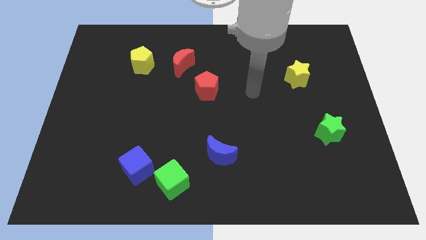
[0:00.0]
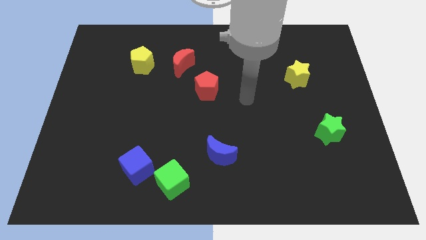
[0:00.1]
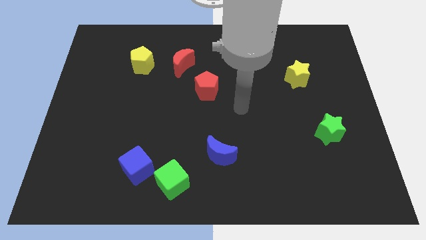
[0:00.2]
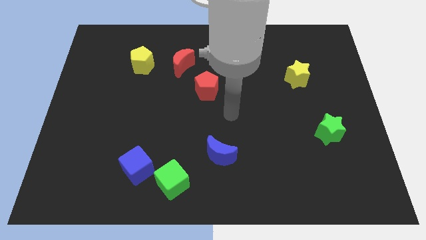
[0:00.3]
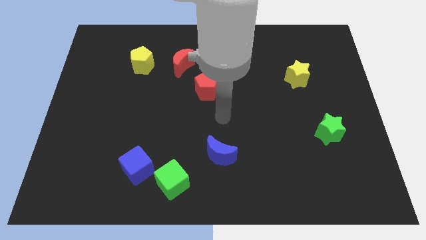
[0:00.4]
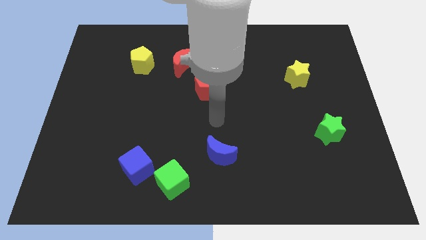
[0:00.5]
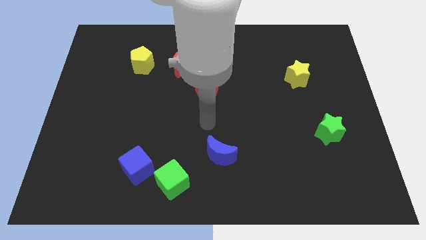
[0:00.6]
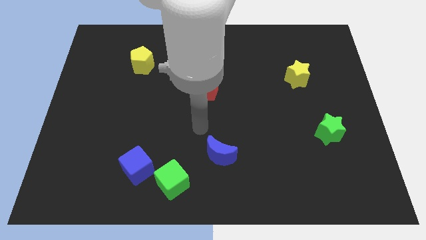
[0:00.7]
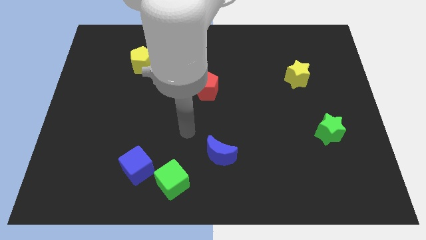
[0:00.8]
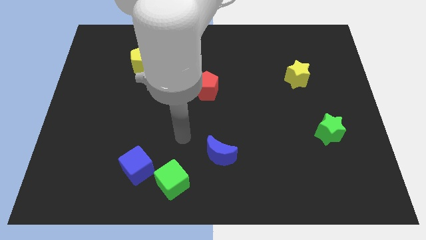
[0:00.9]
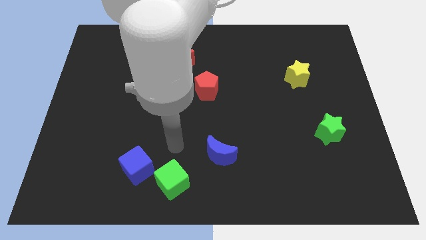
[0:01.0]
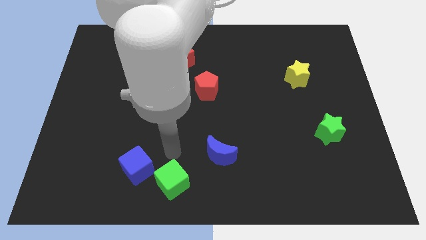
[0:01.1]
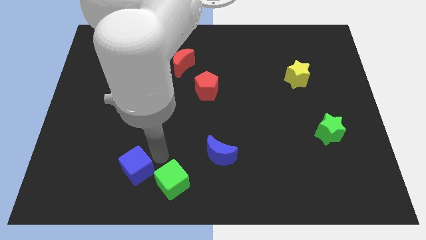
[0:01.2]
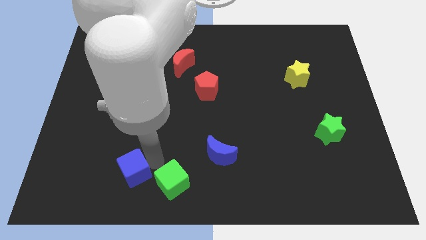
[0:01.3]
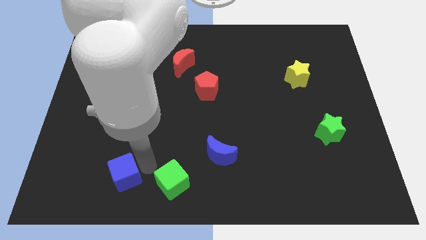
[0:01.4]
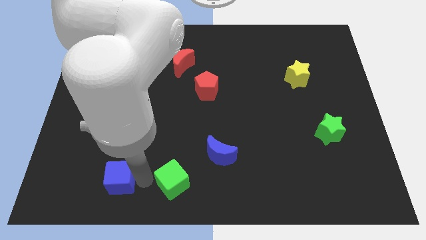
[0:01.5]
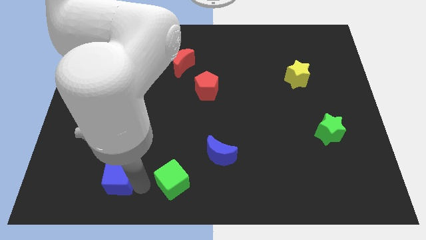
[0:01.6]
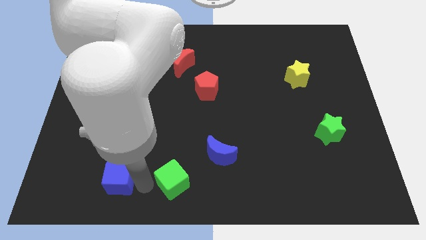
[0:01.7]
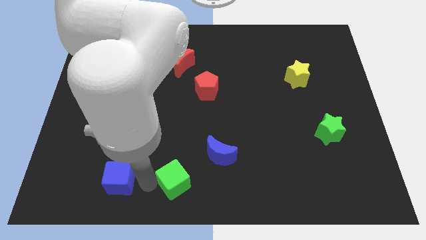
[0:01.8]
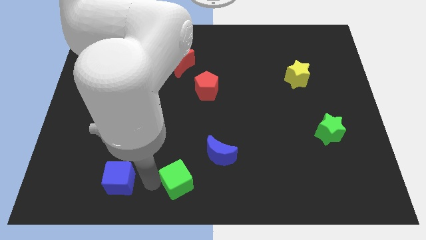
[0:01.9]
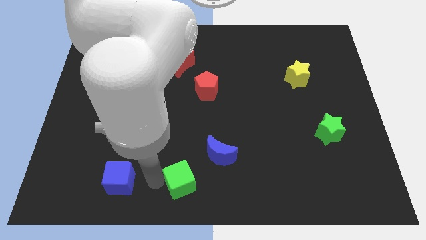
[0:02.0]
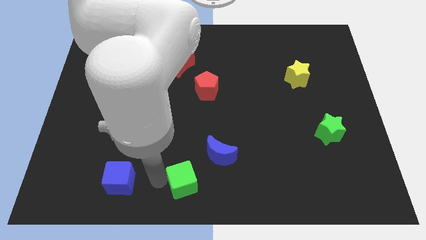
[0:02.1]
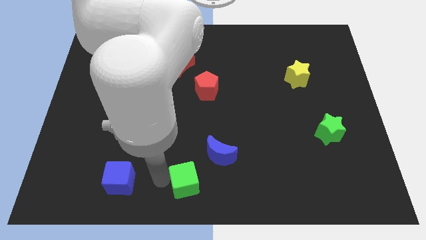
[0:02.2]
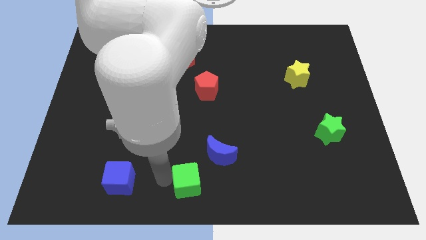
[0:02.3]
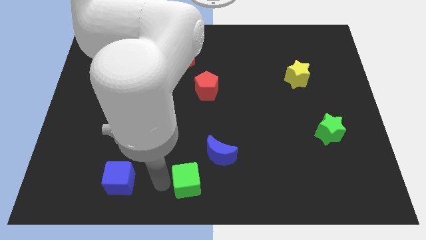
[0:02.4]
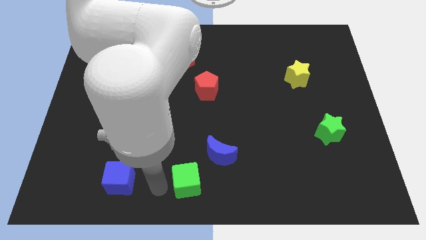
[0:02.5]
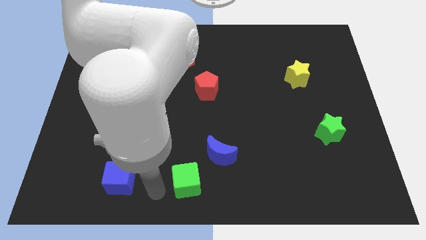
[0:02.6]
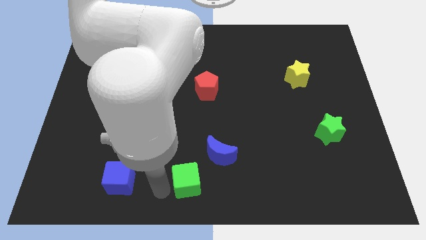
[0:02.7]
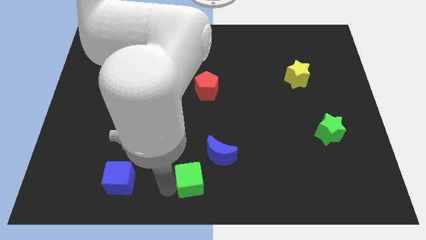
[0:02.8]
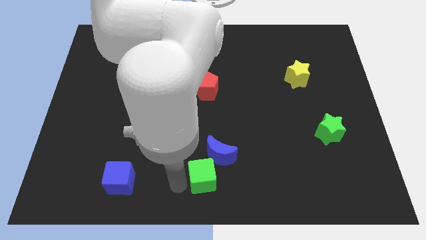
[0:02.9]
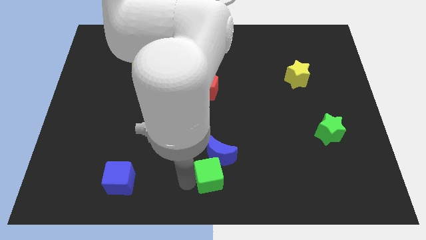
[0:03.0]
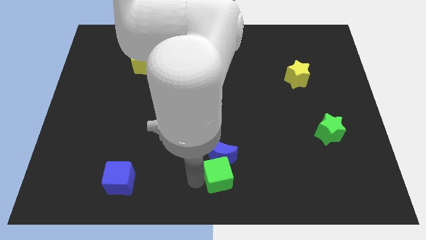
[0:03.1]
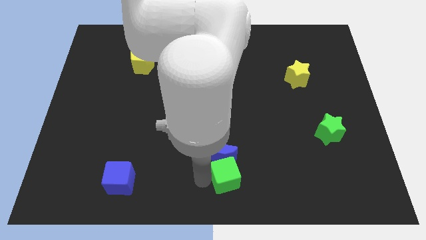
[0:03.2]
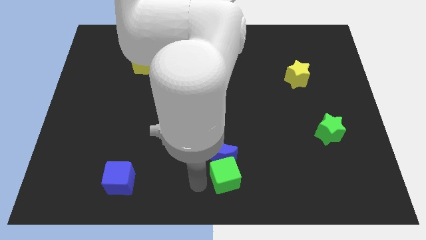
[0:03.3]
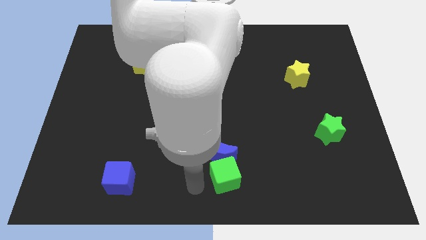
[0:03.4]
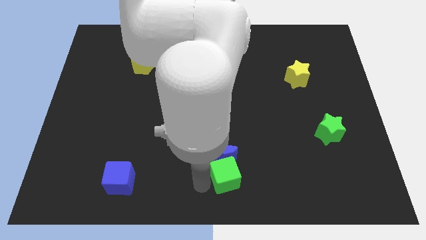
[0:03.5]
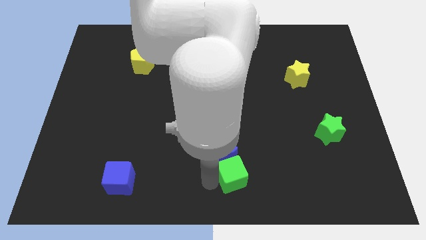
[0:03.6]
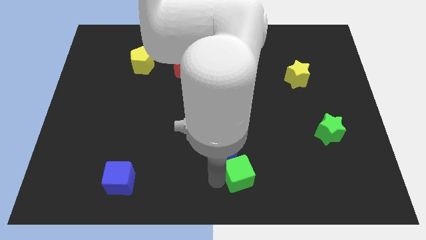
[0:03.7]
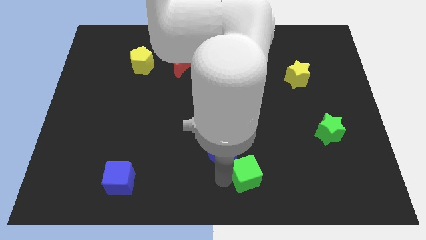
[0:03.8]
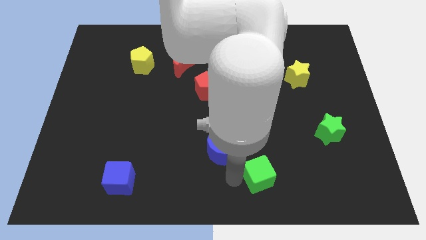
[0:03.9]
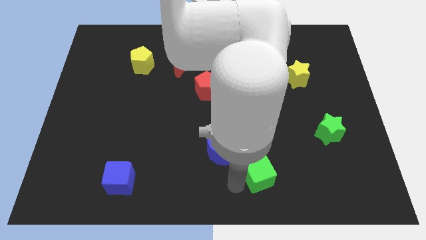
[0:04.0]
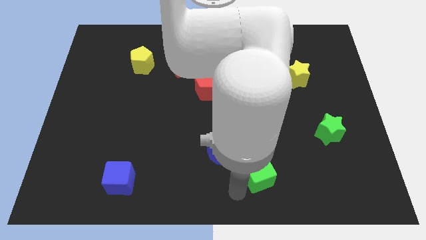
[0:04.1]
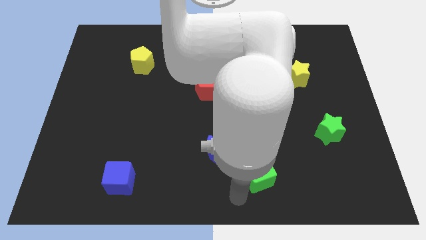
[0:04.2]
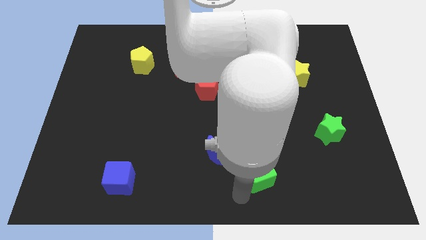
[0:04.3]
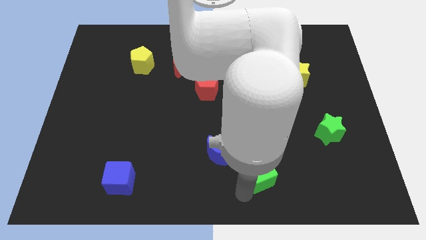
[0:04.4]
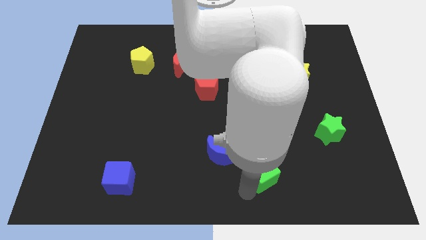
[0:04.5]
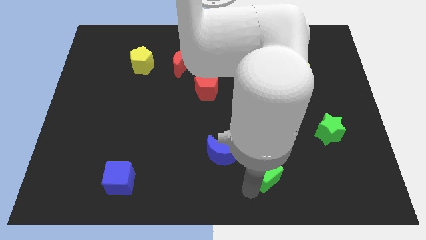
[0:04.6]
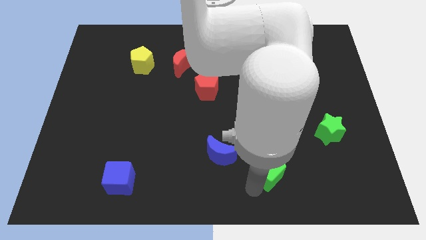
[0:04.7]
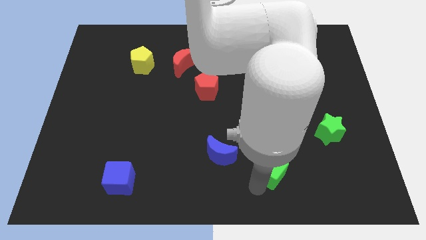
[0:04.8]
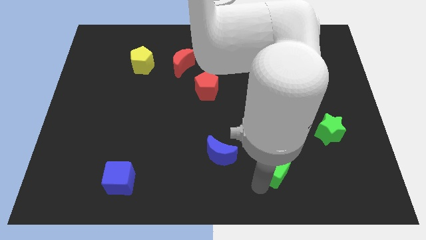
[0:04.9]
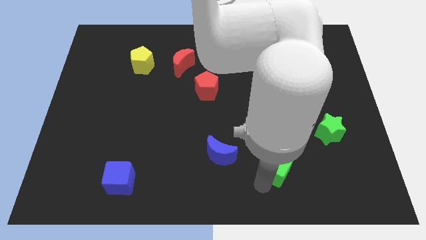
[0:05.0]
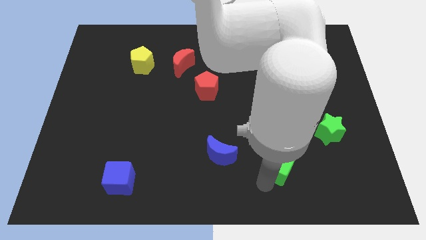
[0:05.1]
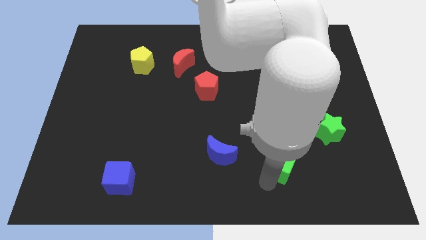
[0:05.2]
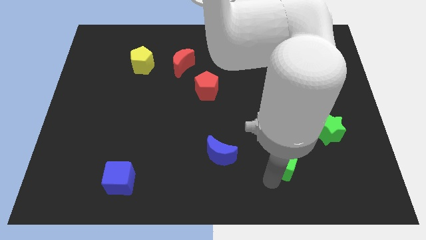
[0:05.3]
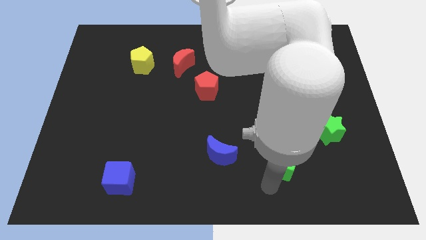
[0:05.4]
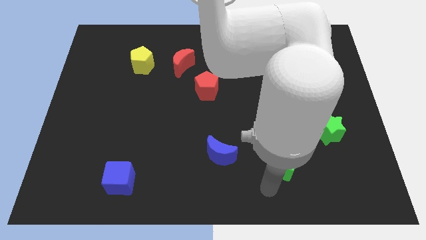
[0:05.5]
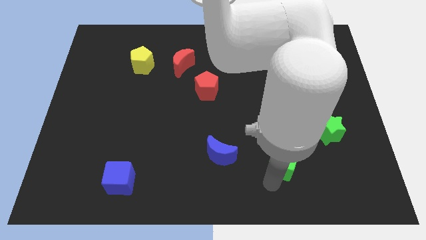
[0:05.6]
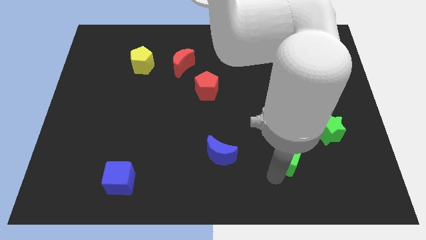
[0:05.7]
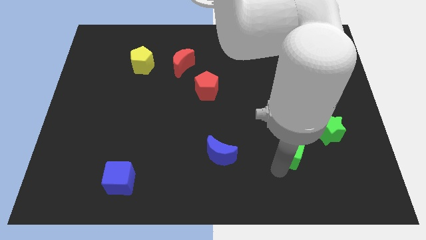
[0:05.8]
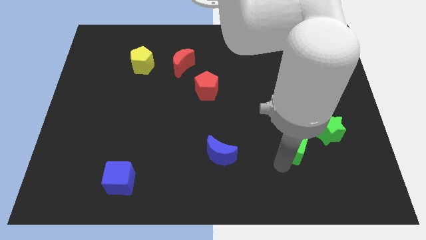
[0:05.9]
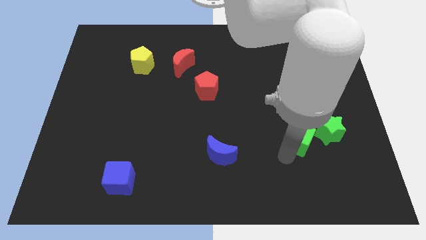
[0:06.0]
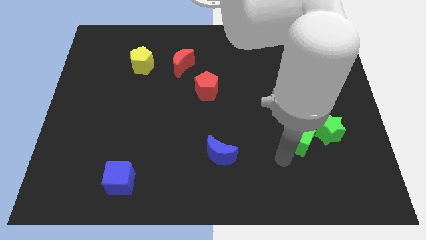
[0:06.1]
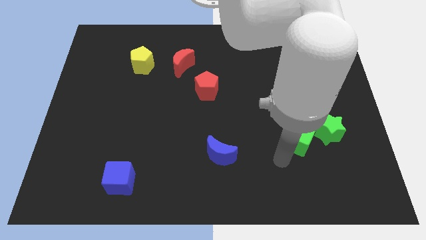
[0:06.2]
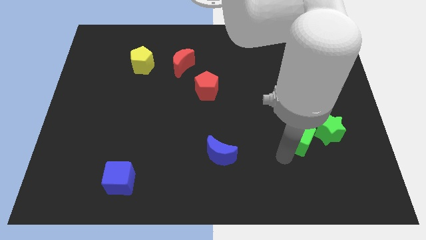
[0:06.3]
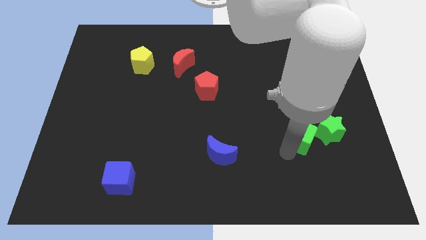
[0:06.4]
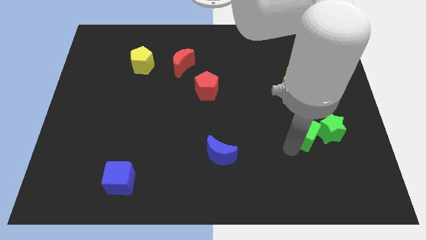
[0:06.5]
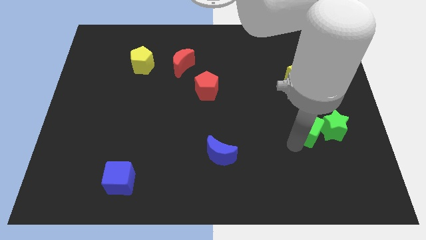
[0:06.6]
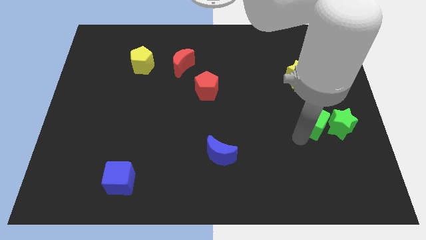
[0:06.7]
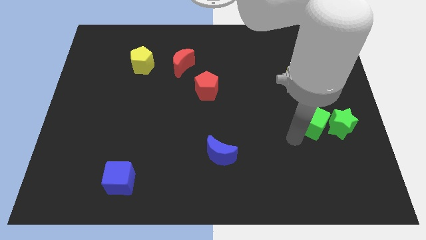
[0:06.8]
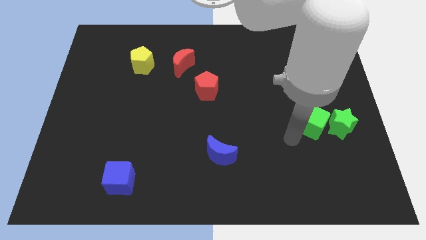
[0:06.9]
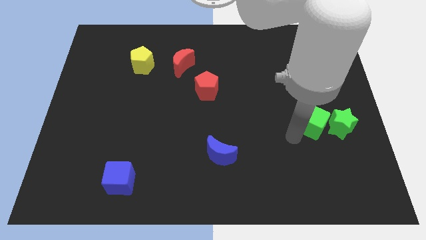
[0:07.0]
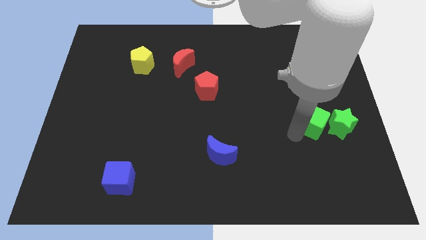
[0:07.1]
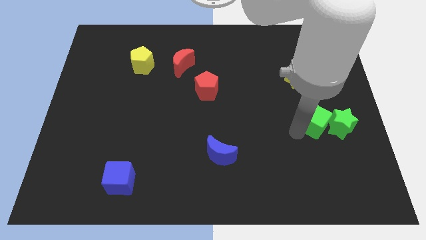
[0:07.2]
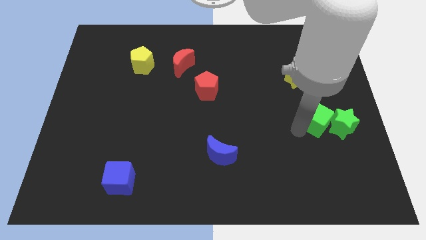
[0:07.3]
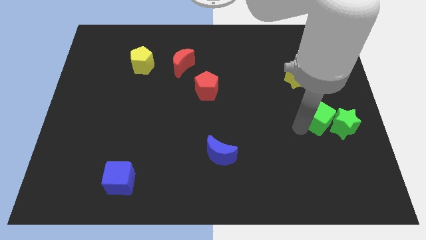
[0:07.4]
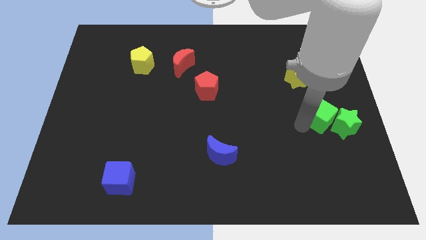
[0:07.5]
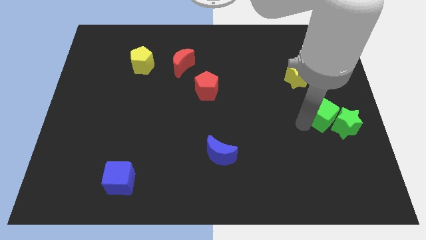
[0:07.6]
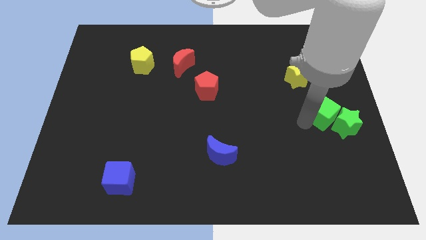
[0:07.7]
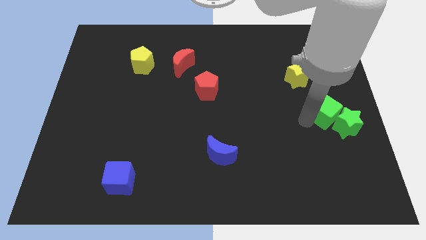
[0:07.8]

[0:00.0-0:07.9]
move the green cube to the right side of the board
